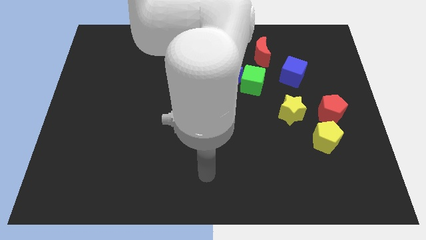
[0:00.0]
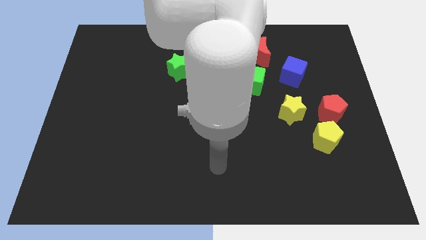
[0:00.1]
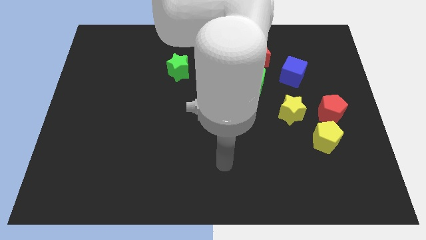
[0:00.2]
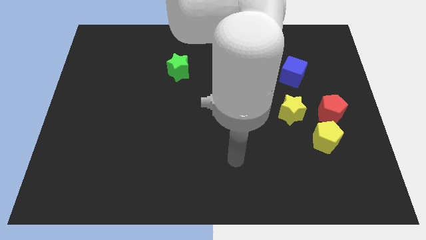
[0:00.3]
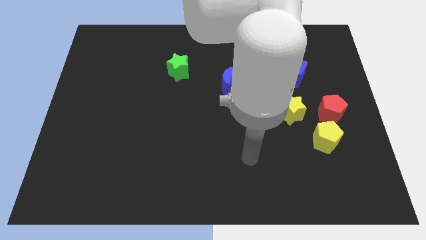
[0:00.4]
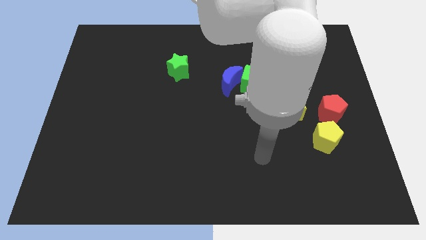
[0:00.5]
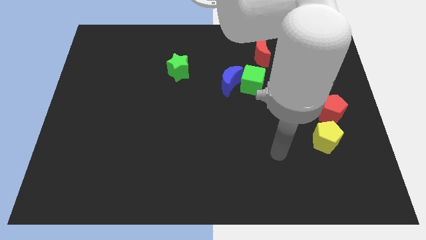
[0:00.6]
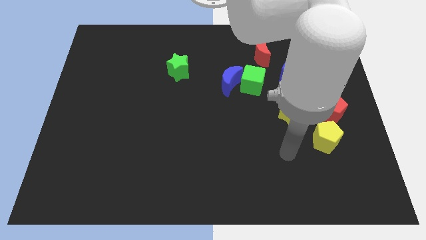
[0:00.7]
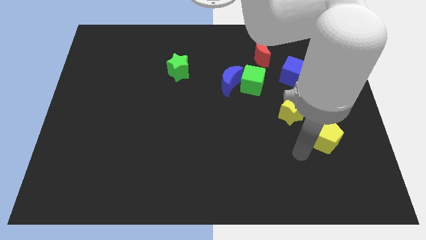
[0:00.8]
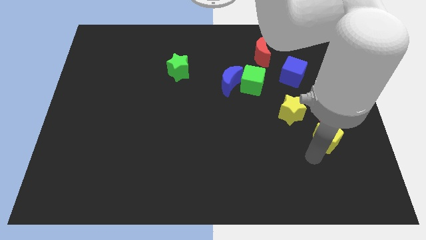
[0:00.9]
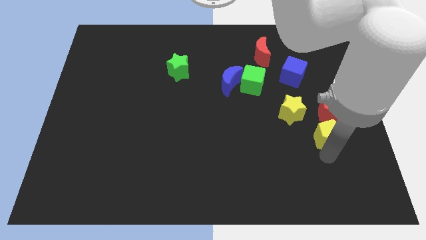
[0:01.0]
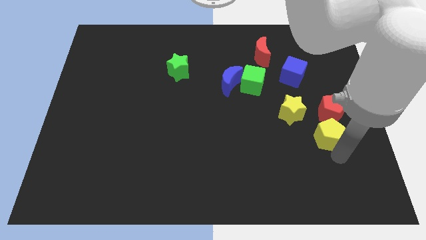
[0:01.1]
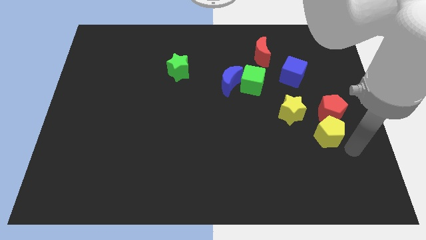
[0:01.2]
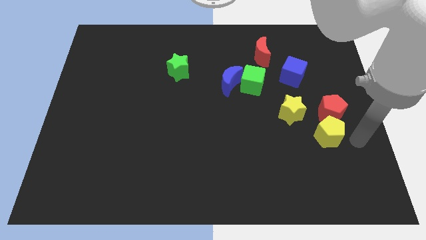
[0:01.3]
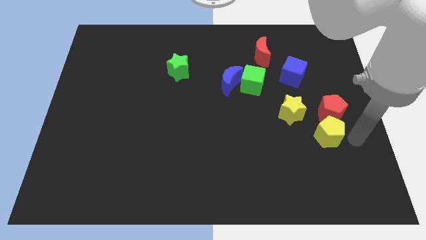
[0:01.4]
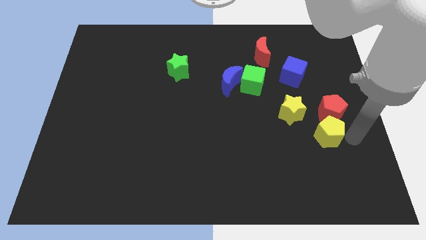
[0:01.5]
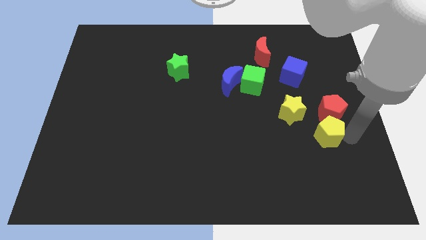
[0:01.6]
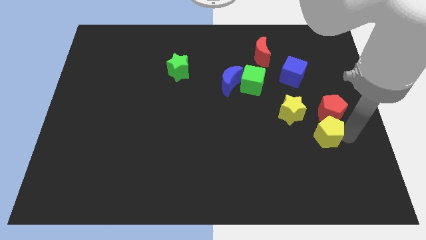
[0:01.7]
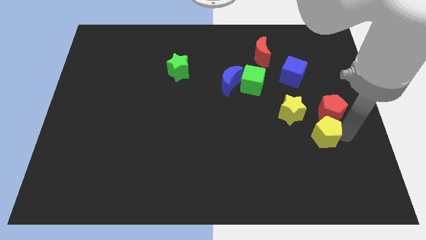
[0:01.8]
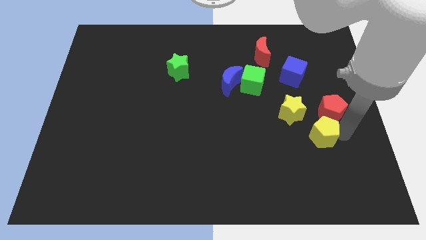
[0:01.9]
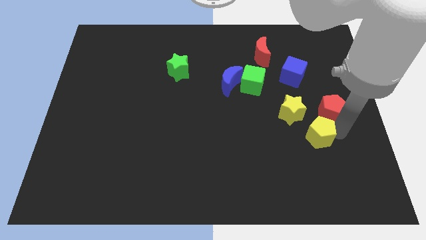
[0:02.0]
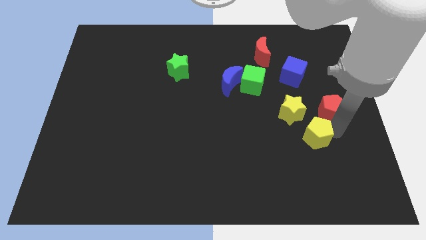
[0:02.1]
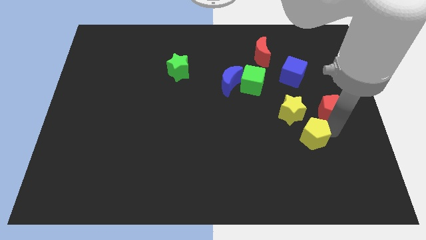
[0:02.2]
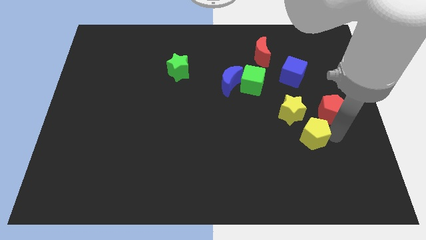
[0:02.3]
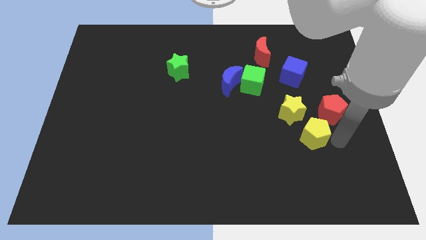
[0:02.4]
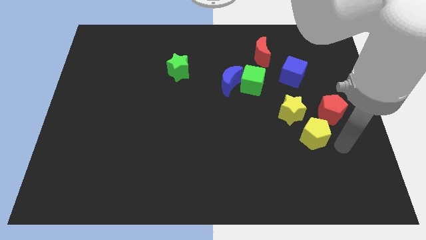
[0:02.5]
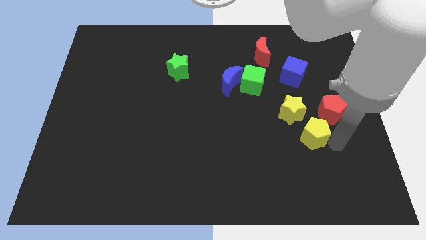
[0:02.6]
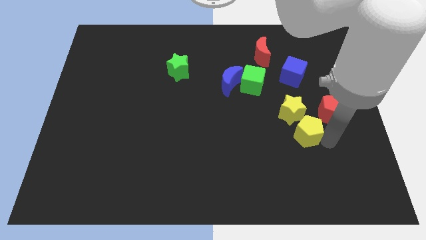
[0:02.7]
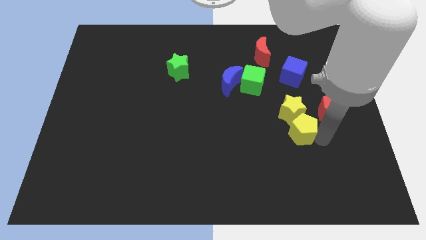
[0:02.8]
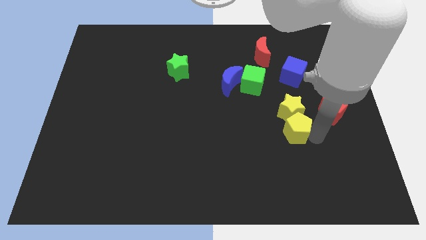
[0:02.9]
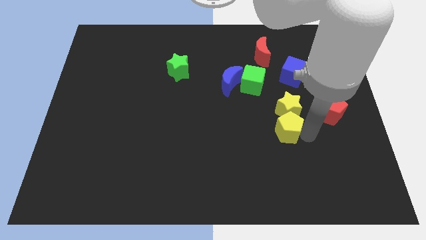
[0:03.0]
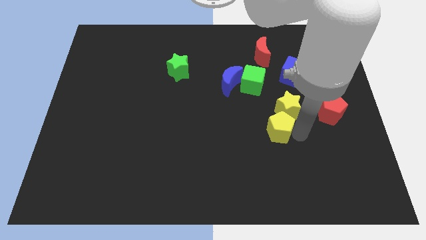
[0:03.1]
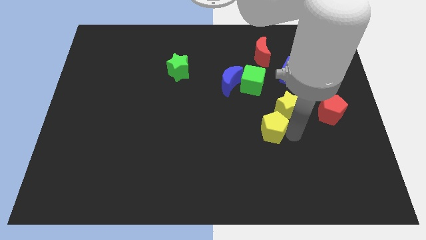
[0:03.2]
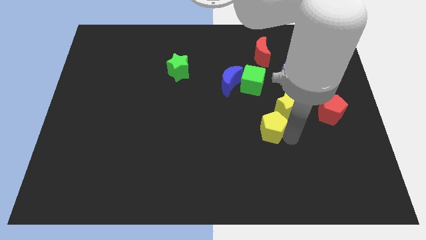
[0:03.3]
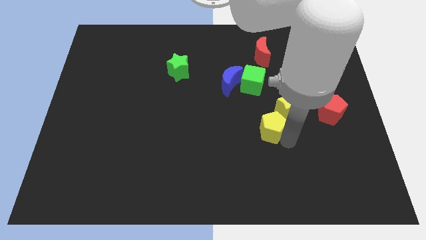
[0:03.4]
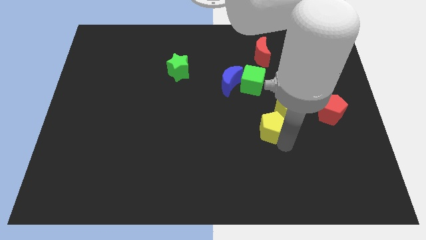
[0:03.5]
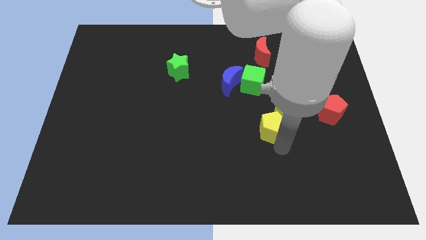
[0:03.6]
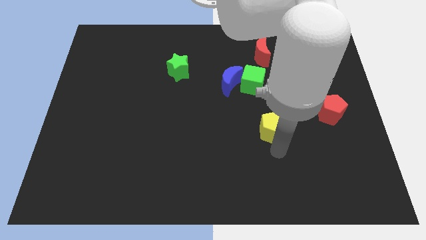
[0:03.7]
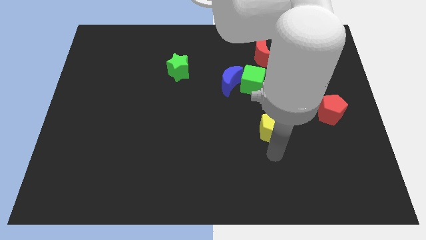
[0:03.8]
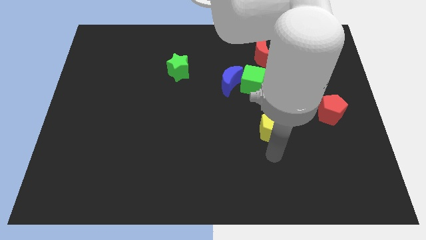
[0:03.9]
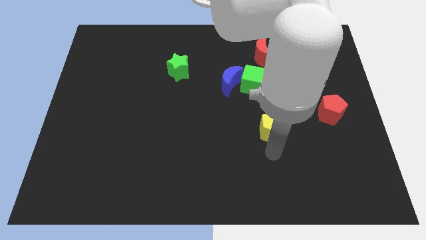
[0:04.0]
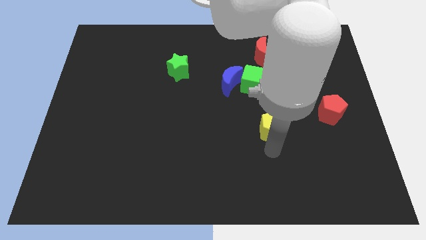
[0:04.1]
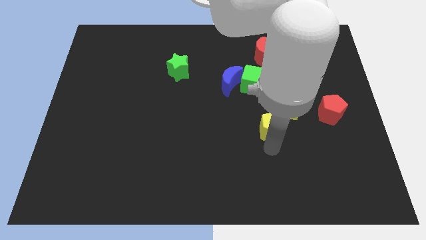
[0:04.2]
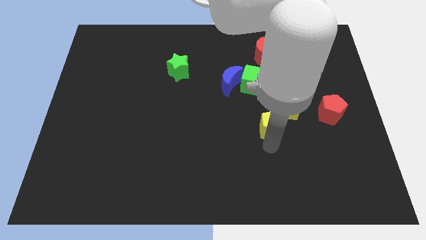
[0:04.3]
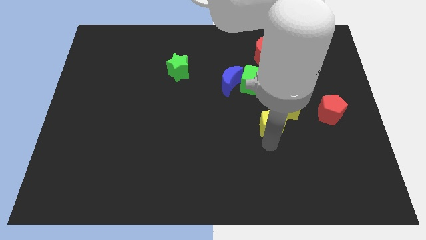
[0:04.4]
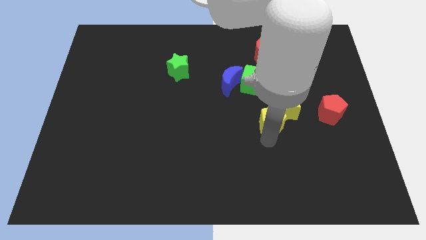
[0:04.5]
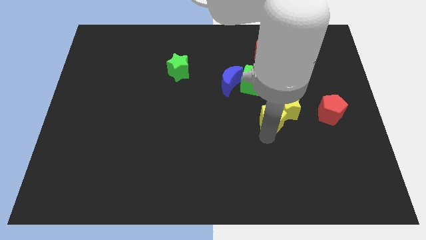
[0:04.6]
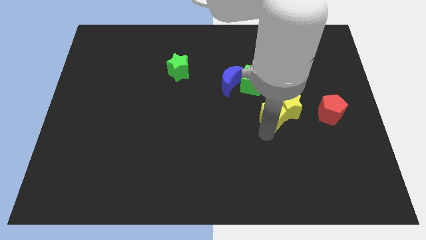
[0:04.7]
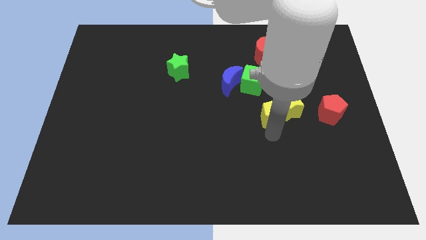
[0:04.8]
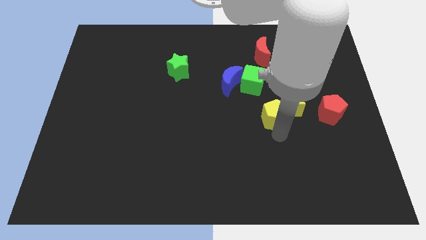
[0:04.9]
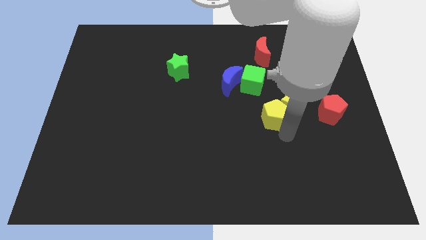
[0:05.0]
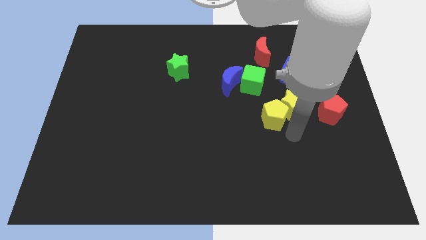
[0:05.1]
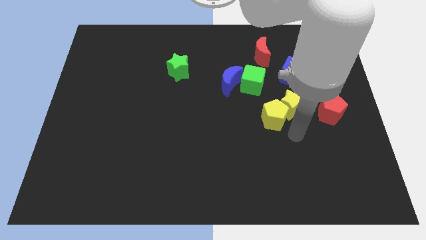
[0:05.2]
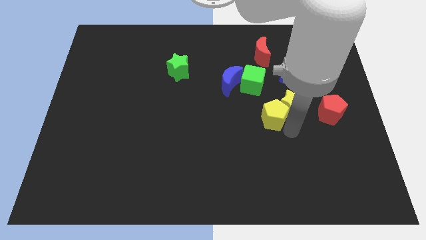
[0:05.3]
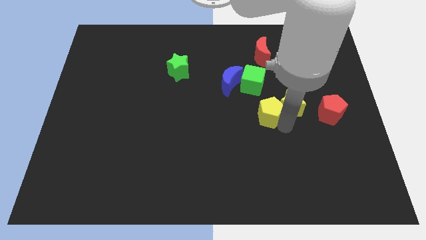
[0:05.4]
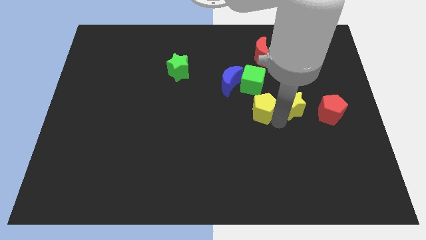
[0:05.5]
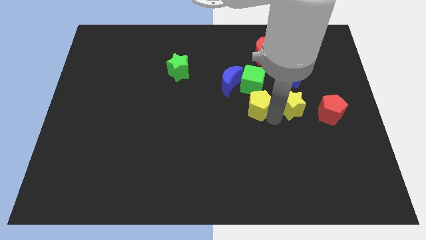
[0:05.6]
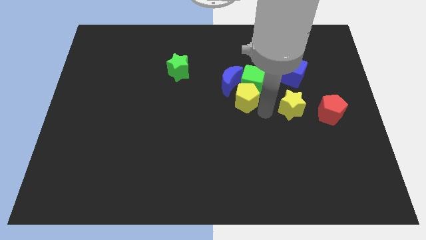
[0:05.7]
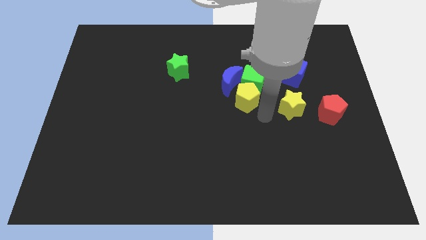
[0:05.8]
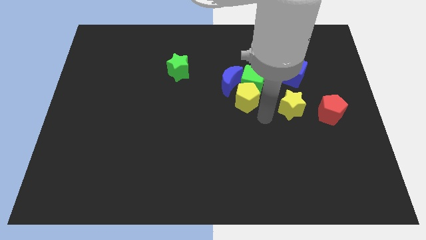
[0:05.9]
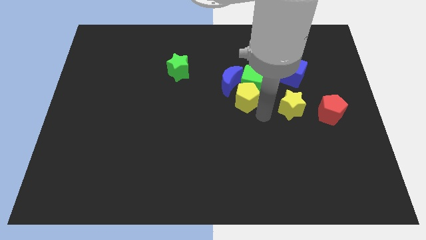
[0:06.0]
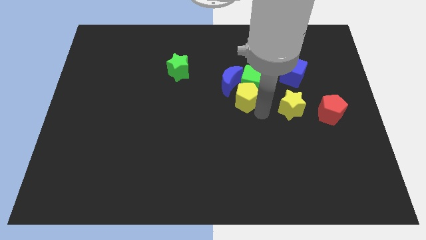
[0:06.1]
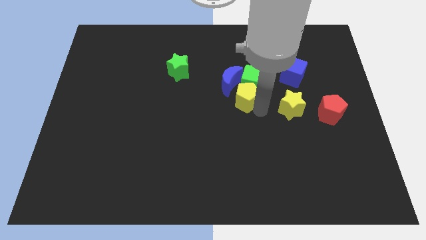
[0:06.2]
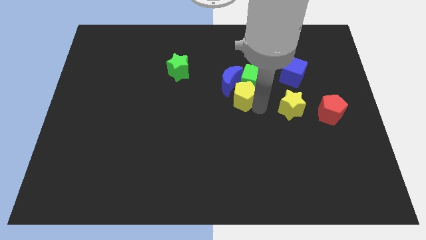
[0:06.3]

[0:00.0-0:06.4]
put the yellow pentagon towards the blue moon
